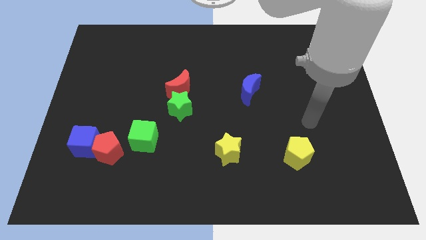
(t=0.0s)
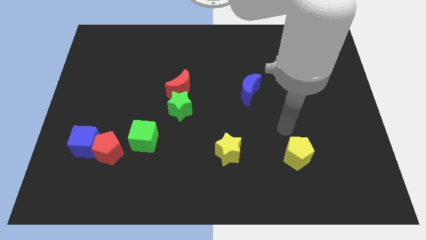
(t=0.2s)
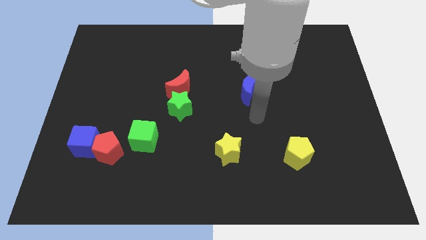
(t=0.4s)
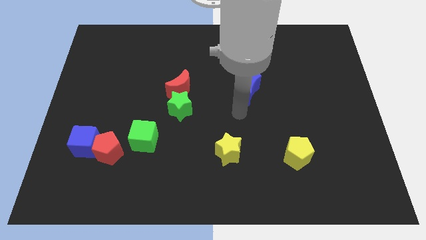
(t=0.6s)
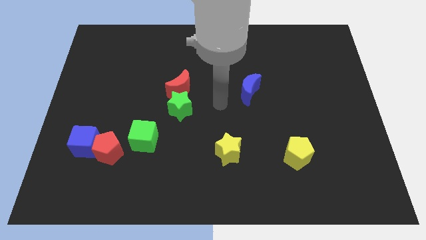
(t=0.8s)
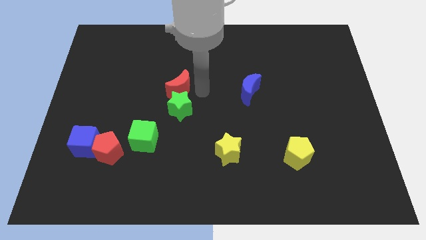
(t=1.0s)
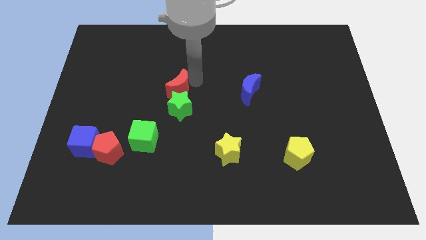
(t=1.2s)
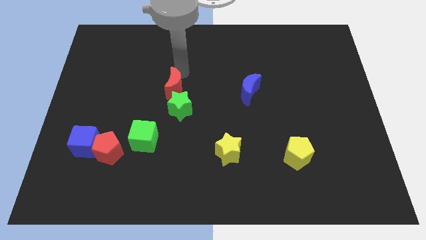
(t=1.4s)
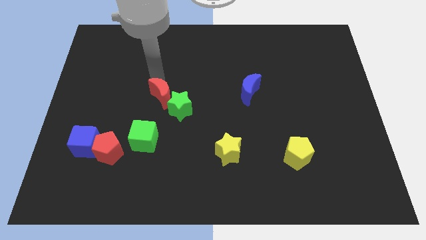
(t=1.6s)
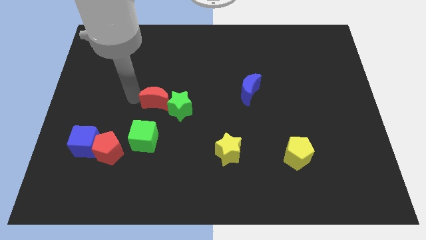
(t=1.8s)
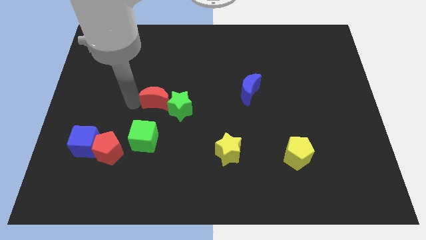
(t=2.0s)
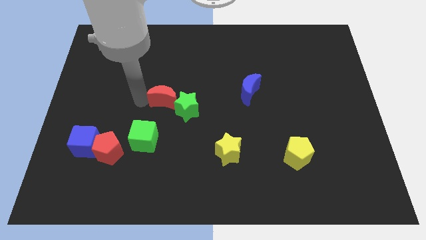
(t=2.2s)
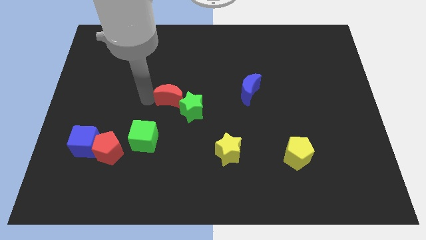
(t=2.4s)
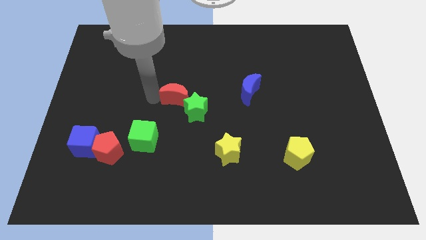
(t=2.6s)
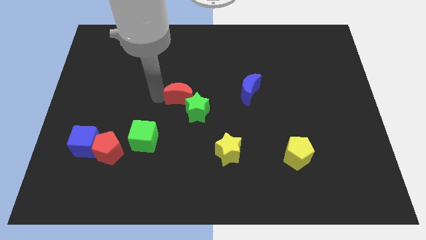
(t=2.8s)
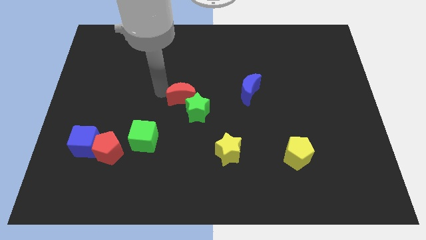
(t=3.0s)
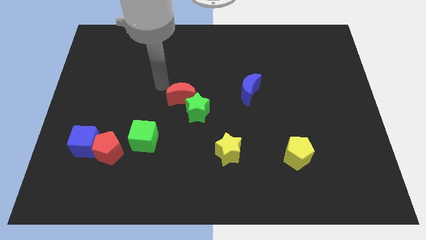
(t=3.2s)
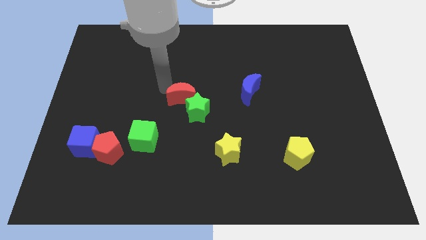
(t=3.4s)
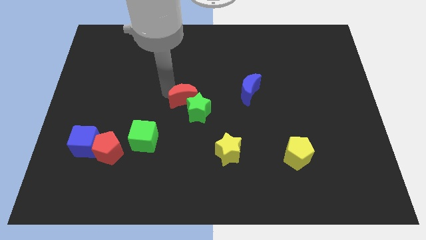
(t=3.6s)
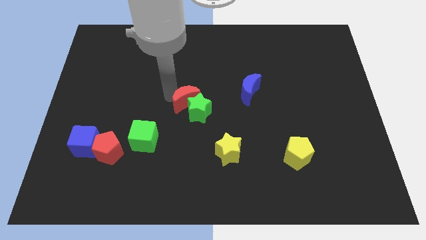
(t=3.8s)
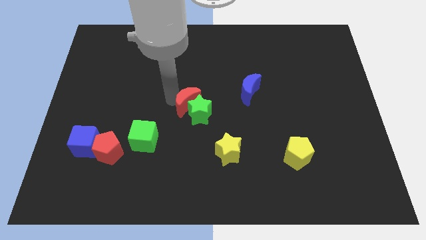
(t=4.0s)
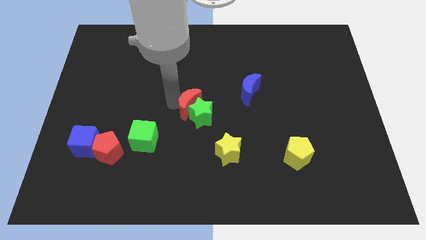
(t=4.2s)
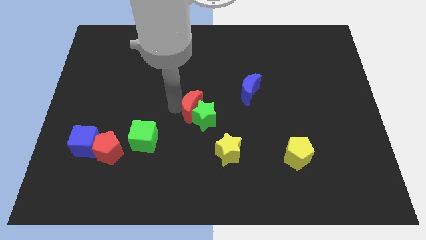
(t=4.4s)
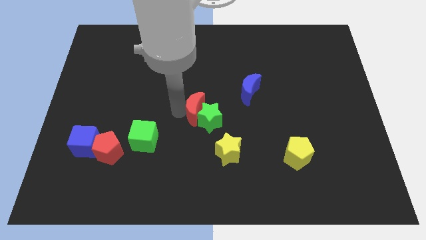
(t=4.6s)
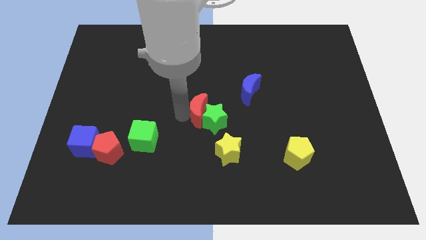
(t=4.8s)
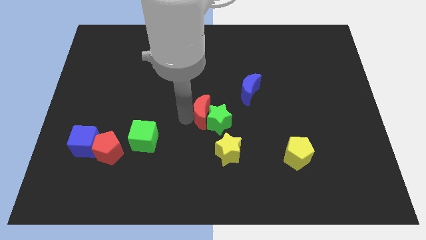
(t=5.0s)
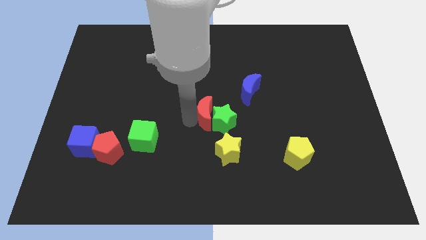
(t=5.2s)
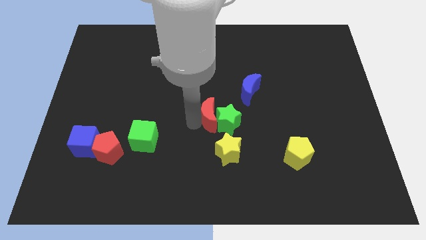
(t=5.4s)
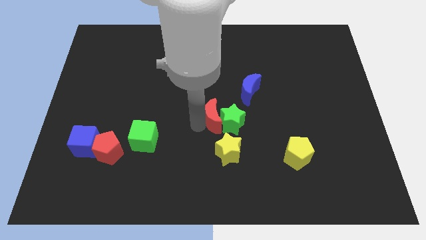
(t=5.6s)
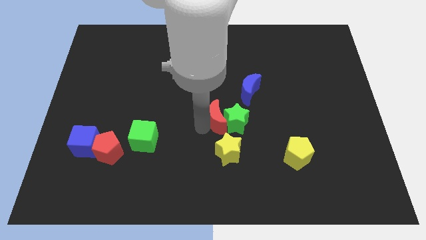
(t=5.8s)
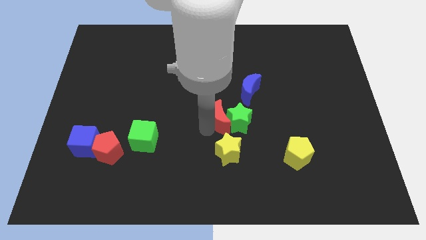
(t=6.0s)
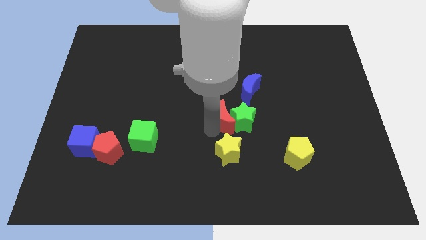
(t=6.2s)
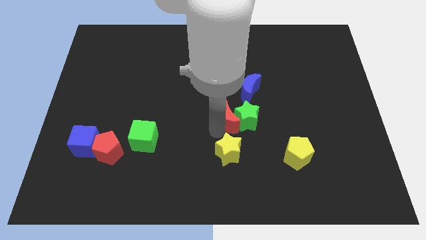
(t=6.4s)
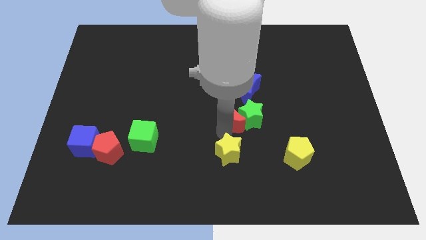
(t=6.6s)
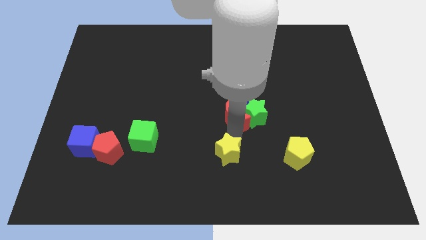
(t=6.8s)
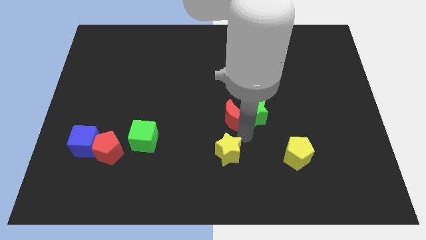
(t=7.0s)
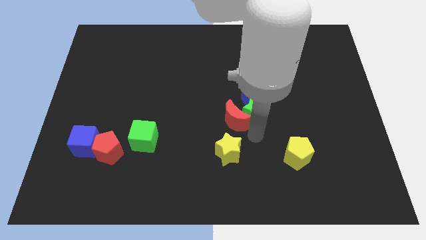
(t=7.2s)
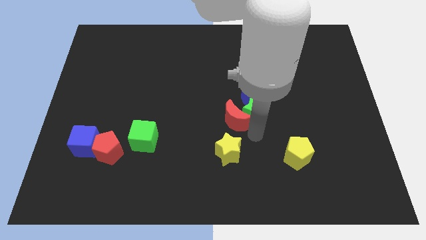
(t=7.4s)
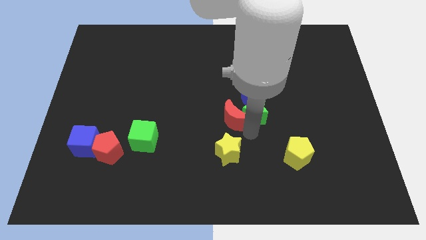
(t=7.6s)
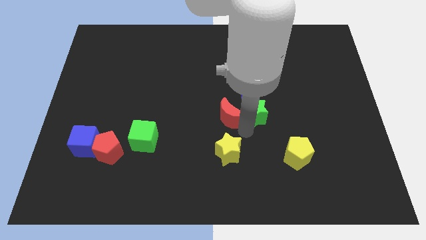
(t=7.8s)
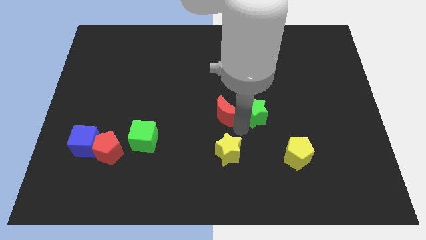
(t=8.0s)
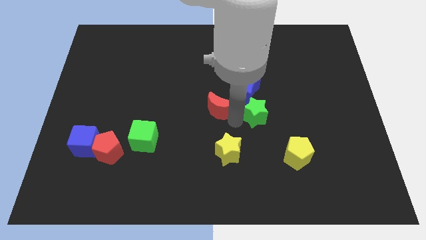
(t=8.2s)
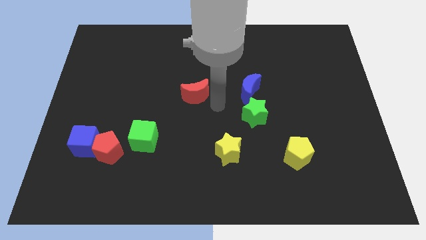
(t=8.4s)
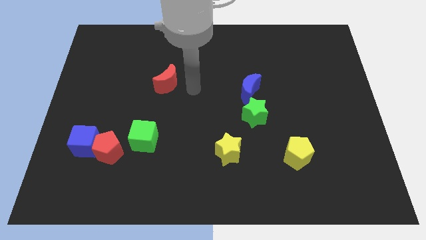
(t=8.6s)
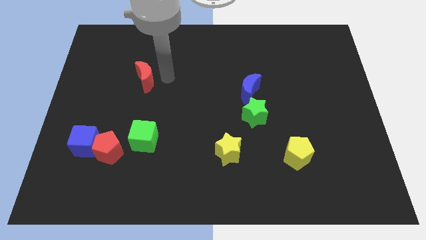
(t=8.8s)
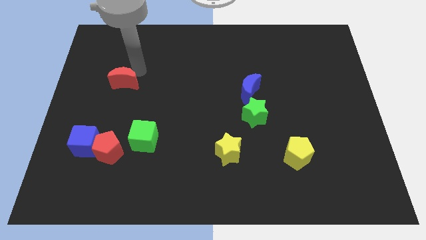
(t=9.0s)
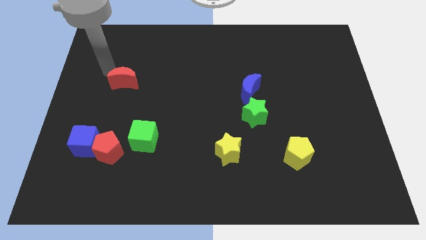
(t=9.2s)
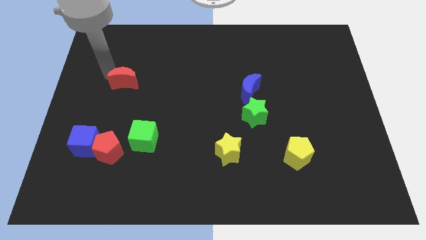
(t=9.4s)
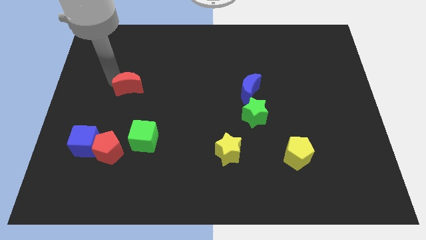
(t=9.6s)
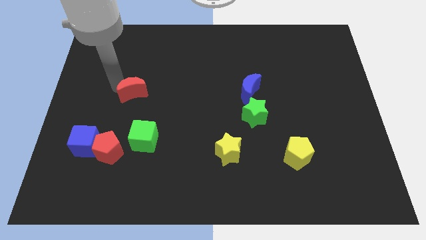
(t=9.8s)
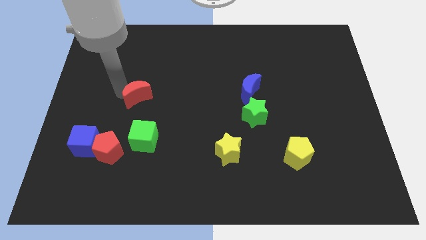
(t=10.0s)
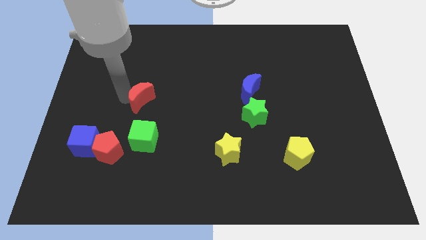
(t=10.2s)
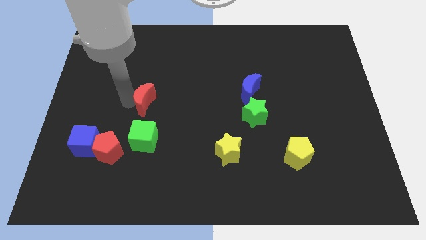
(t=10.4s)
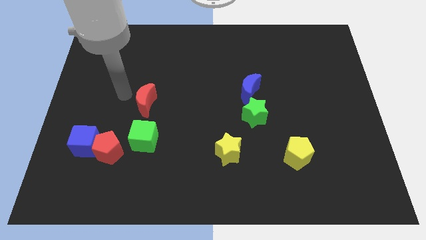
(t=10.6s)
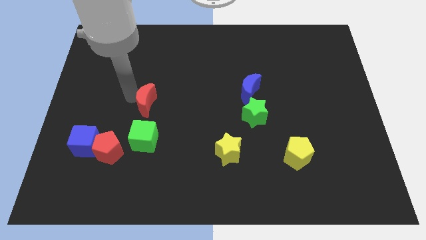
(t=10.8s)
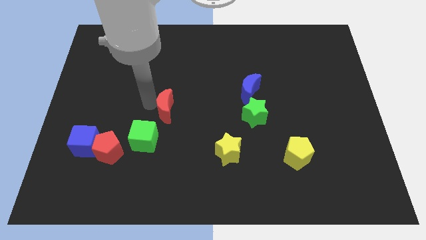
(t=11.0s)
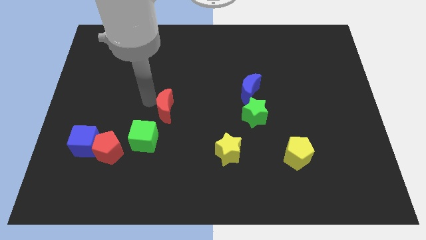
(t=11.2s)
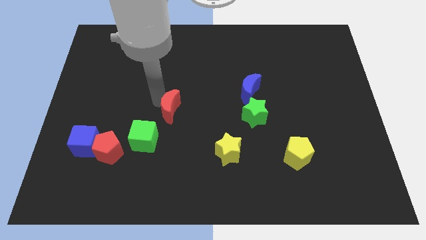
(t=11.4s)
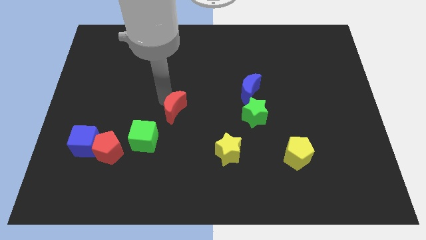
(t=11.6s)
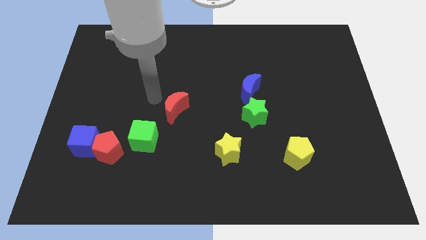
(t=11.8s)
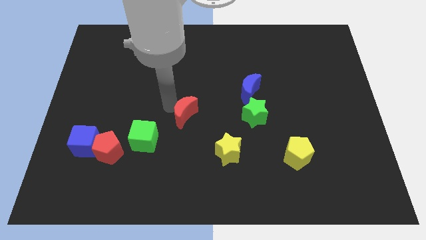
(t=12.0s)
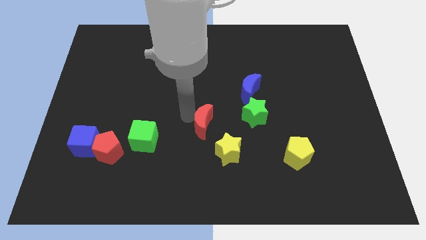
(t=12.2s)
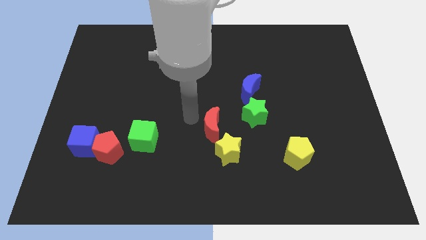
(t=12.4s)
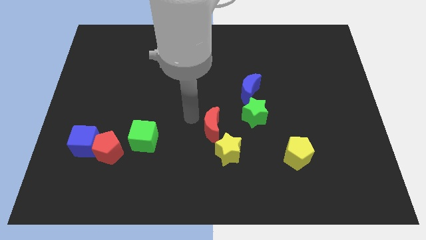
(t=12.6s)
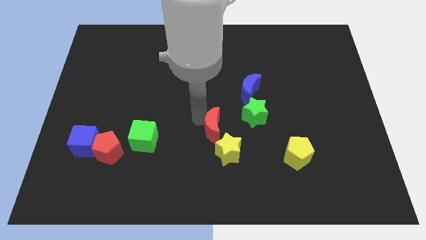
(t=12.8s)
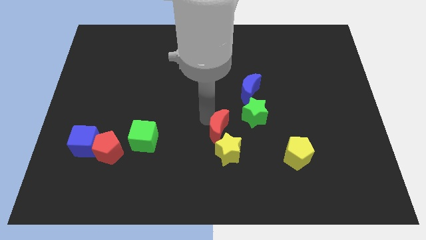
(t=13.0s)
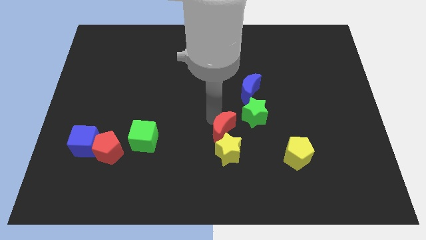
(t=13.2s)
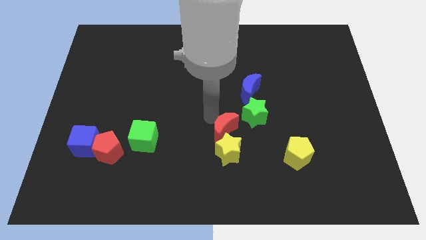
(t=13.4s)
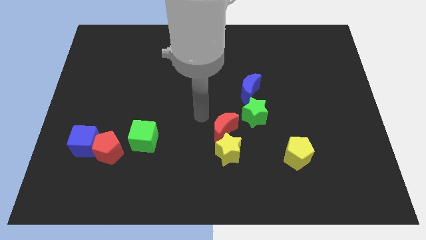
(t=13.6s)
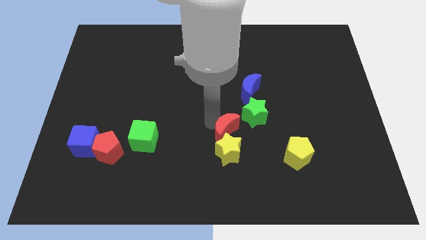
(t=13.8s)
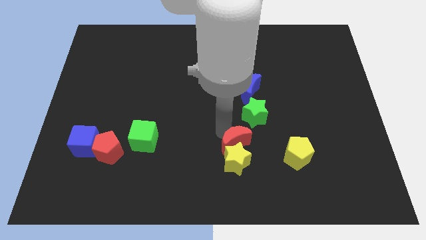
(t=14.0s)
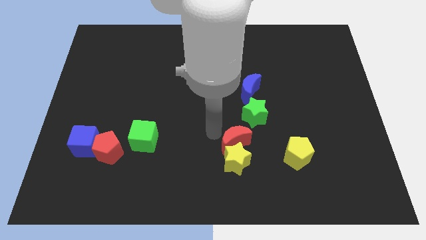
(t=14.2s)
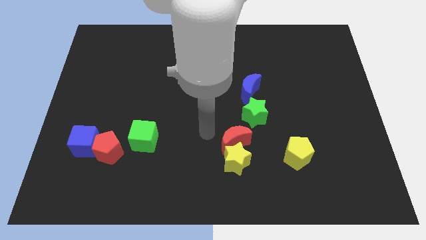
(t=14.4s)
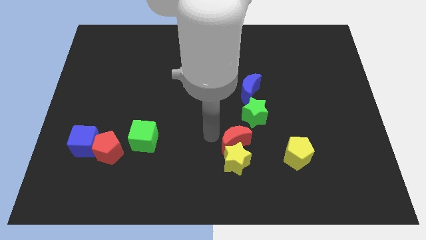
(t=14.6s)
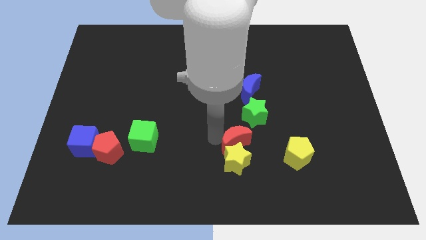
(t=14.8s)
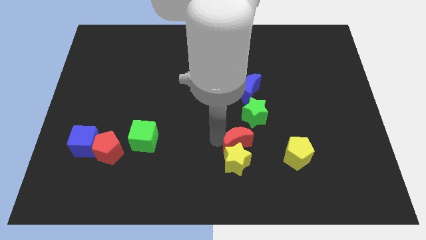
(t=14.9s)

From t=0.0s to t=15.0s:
slide the red moon down and to the right

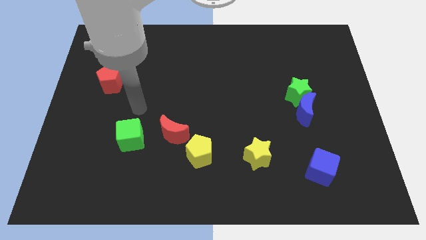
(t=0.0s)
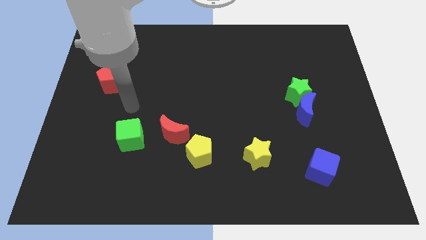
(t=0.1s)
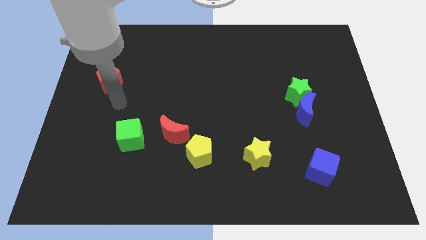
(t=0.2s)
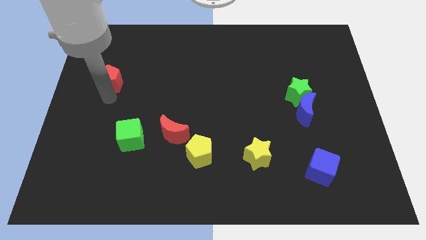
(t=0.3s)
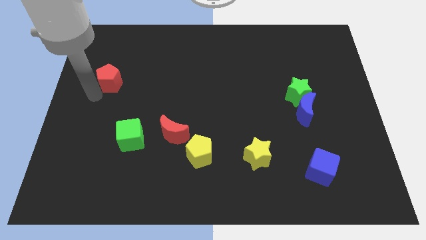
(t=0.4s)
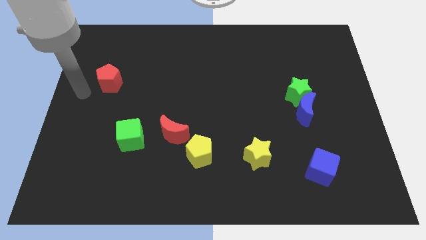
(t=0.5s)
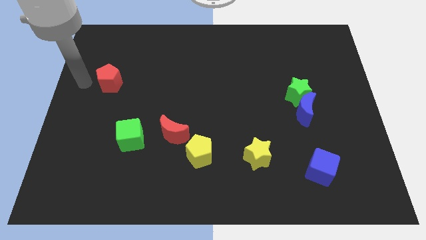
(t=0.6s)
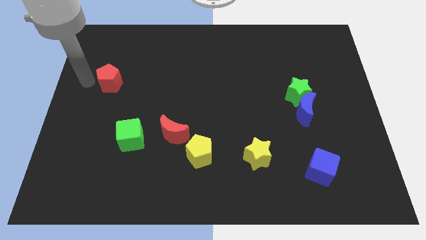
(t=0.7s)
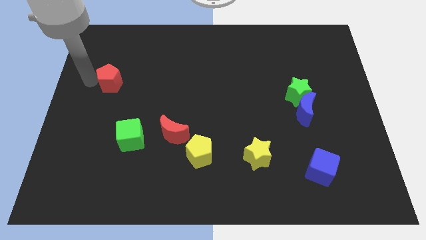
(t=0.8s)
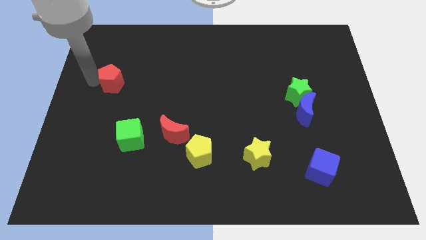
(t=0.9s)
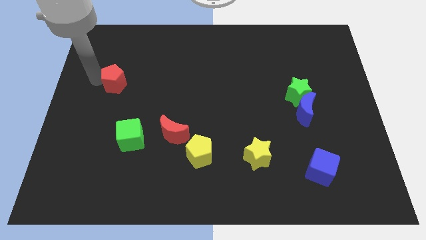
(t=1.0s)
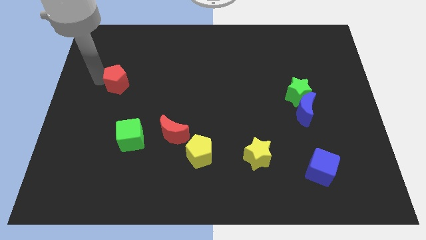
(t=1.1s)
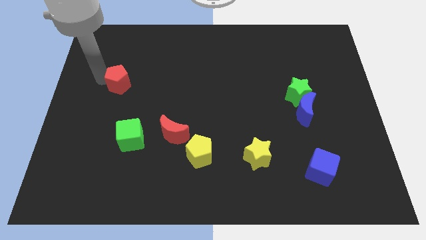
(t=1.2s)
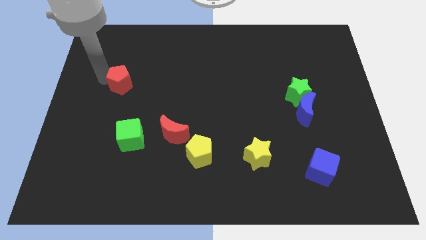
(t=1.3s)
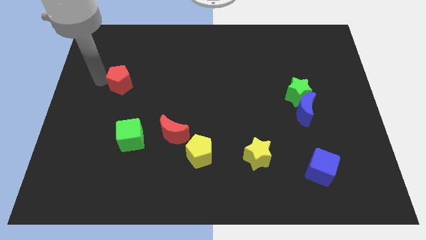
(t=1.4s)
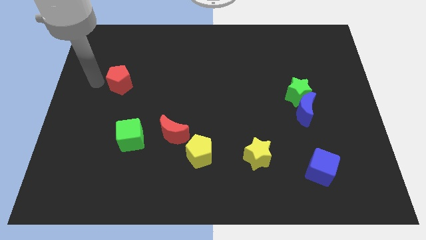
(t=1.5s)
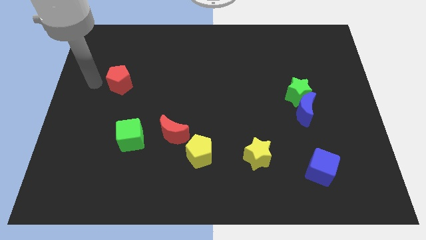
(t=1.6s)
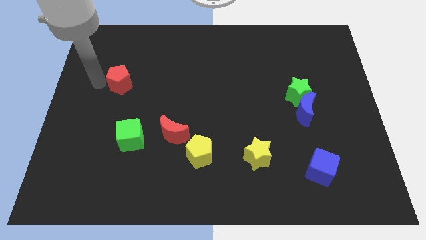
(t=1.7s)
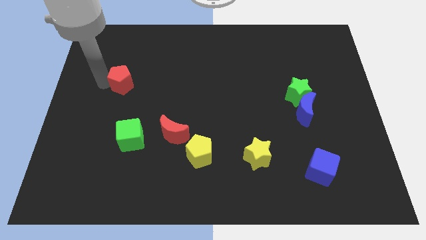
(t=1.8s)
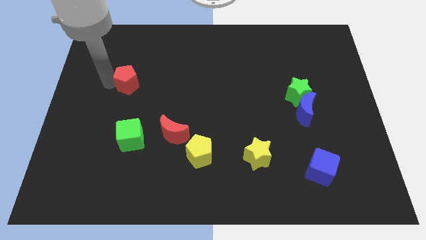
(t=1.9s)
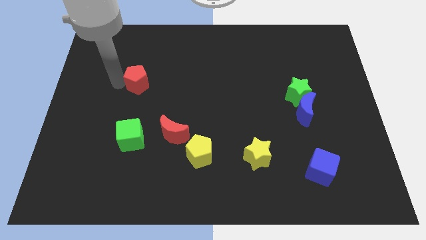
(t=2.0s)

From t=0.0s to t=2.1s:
move the red pentagon somewhat to the right
